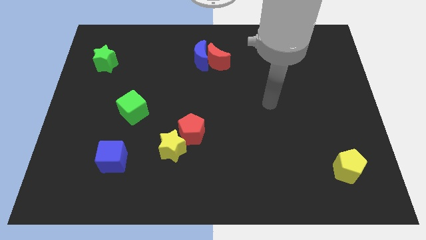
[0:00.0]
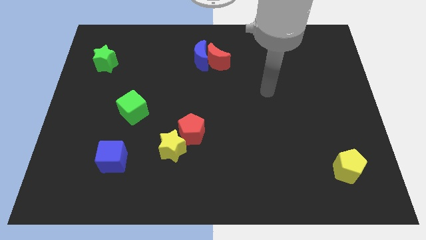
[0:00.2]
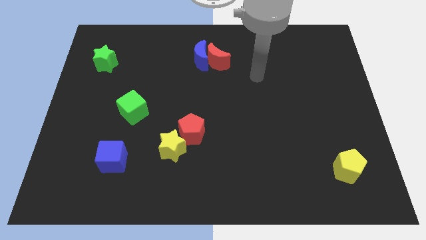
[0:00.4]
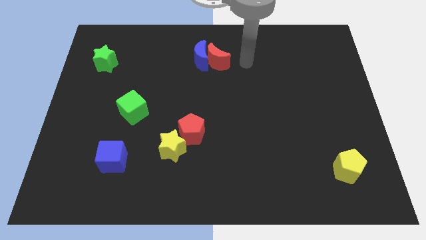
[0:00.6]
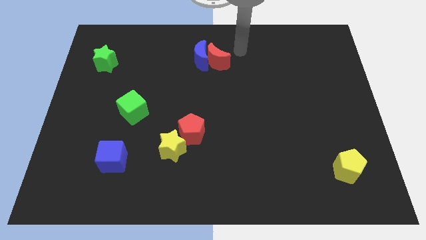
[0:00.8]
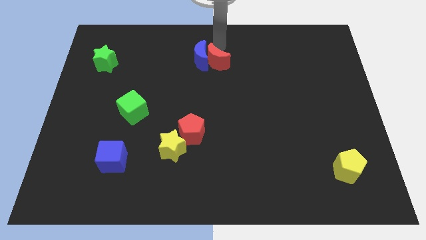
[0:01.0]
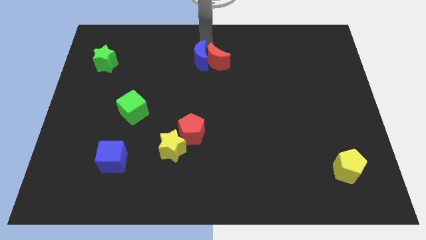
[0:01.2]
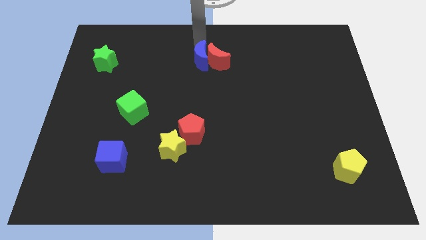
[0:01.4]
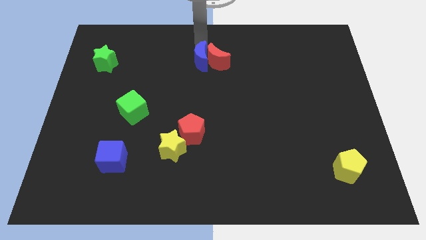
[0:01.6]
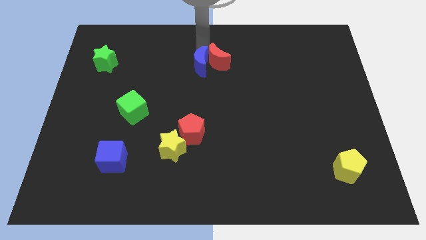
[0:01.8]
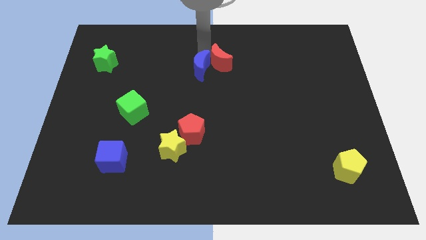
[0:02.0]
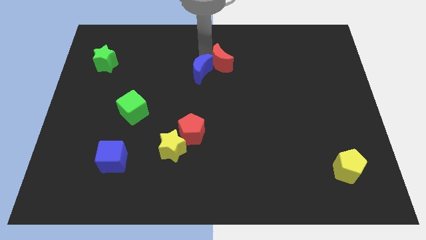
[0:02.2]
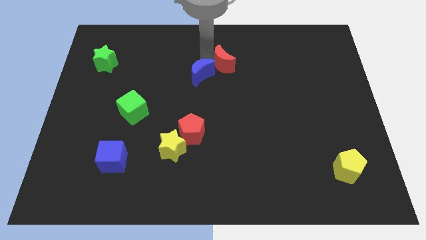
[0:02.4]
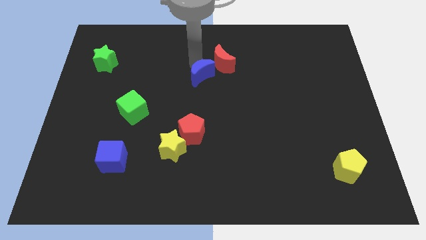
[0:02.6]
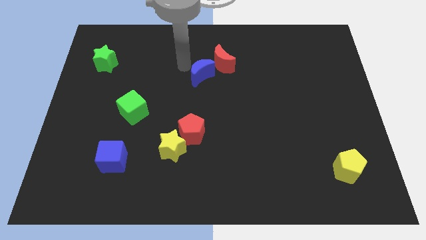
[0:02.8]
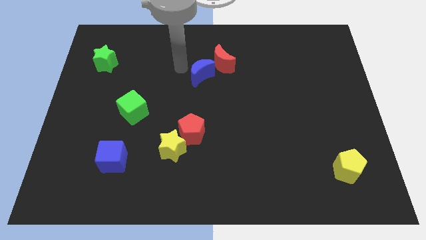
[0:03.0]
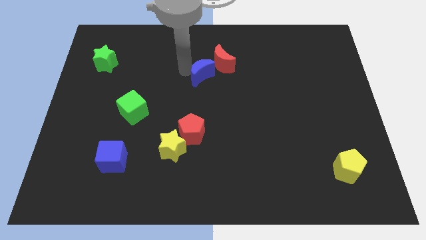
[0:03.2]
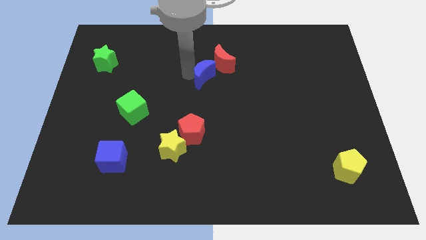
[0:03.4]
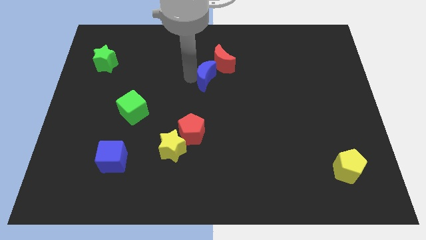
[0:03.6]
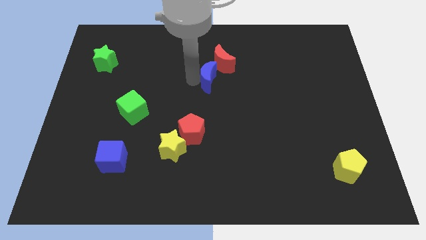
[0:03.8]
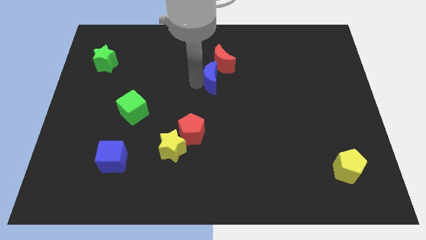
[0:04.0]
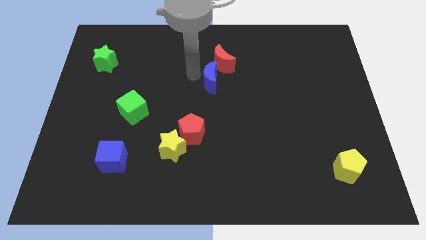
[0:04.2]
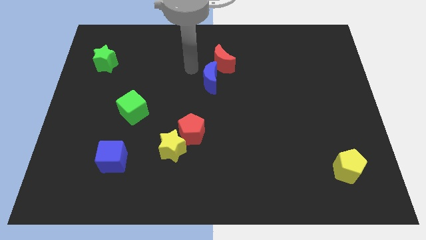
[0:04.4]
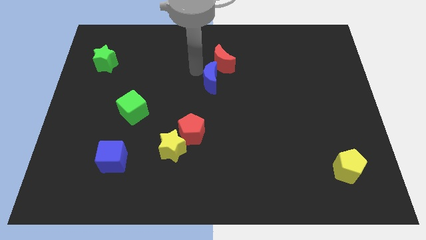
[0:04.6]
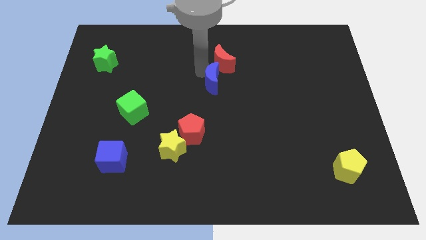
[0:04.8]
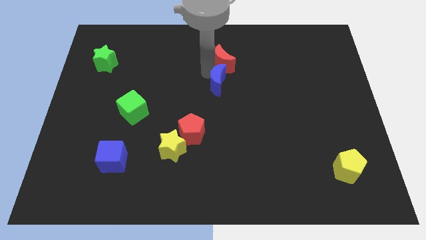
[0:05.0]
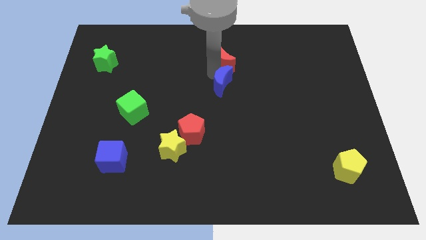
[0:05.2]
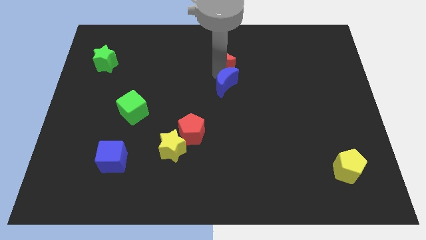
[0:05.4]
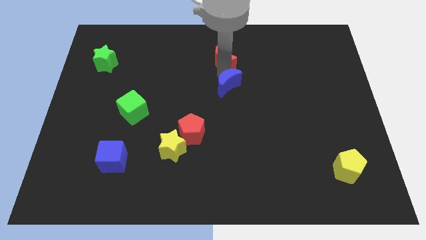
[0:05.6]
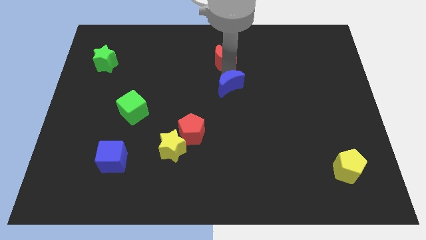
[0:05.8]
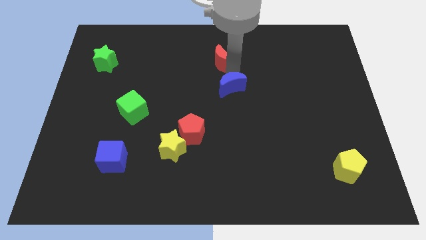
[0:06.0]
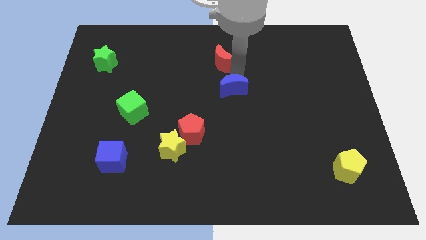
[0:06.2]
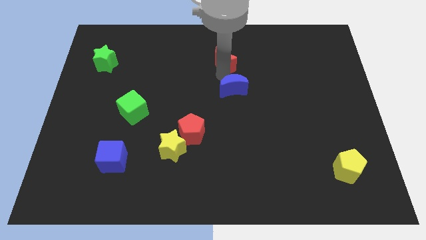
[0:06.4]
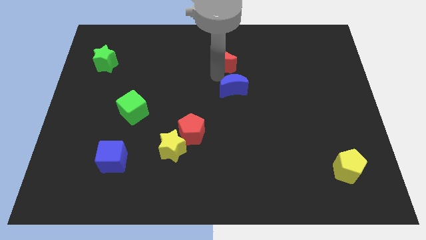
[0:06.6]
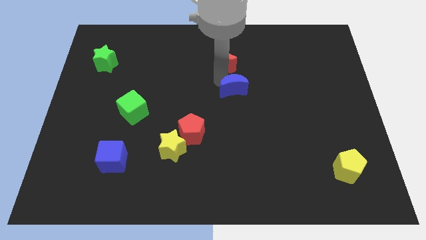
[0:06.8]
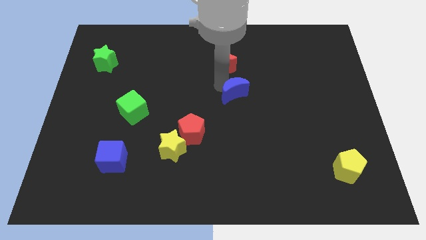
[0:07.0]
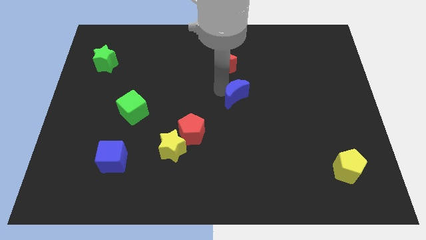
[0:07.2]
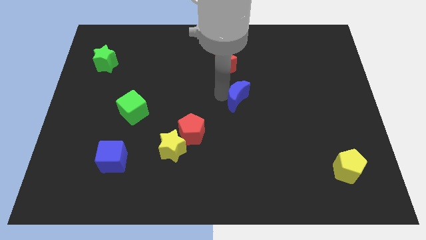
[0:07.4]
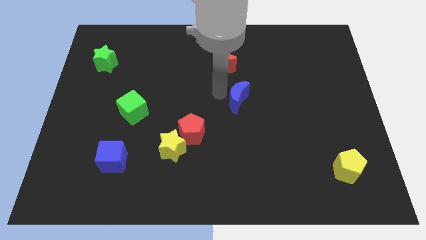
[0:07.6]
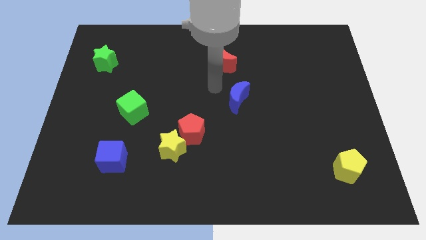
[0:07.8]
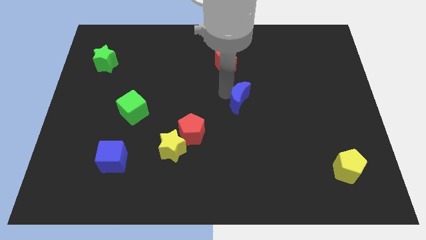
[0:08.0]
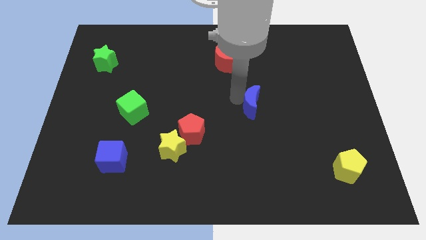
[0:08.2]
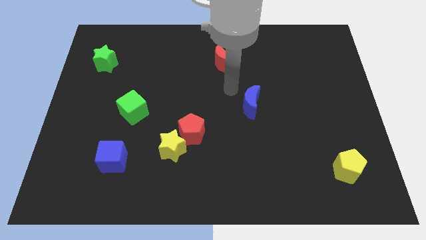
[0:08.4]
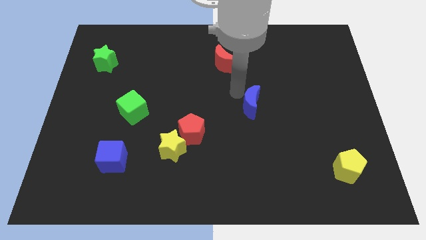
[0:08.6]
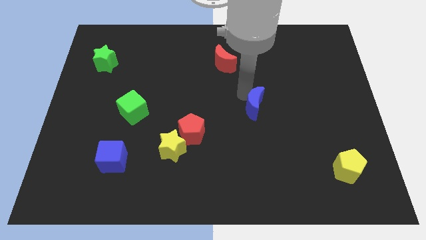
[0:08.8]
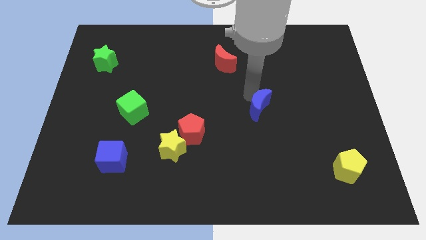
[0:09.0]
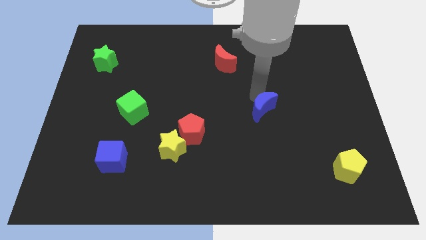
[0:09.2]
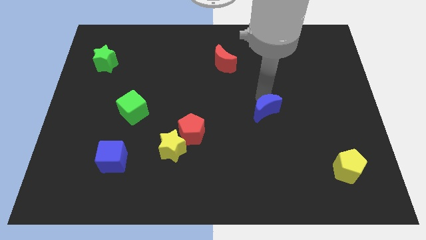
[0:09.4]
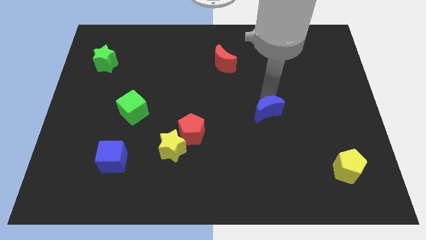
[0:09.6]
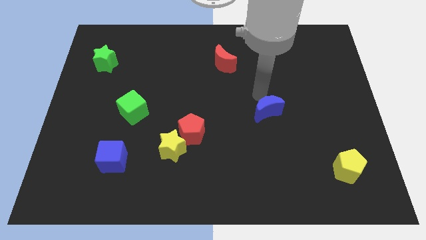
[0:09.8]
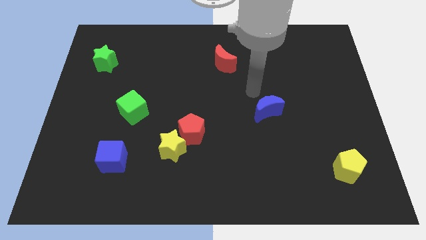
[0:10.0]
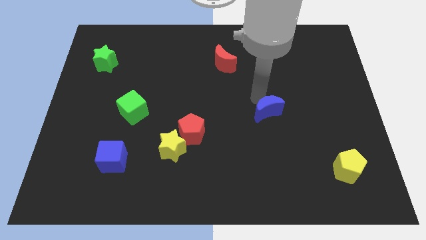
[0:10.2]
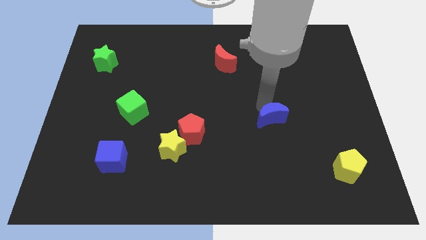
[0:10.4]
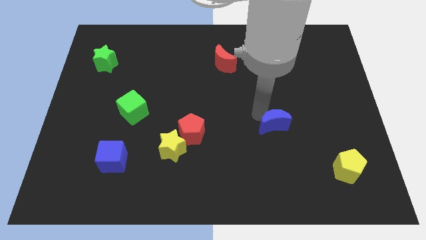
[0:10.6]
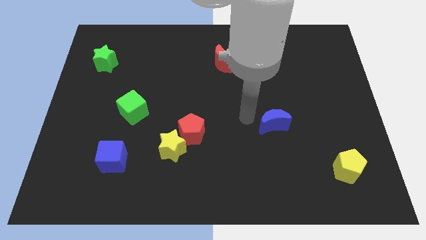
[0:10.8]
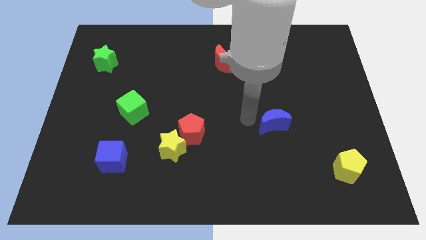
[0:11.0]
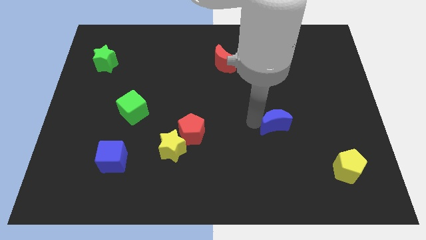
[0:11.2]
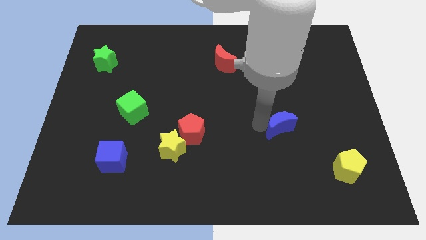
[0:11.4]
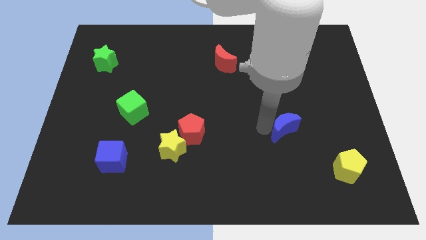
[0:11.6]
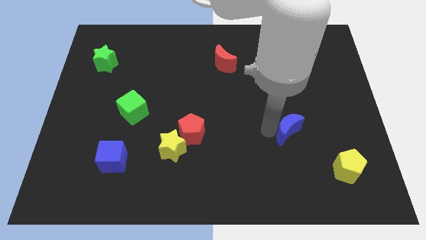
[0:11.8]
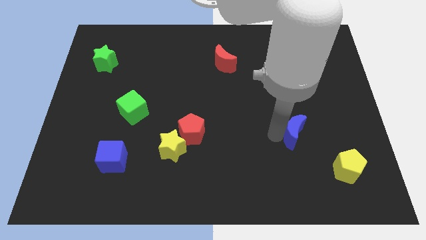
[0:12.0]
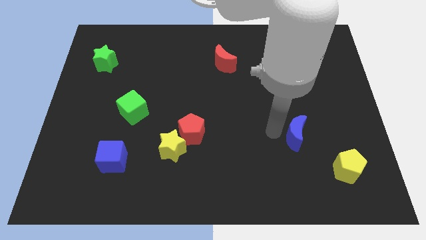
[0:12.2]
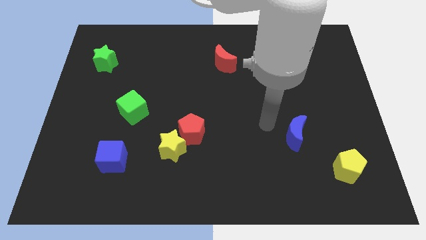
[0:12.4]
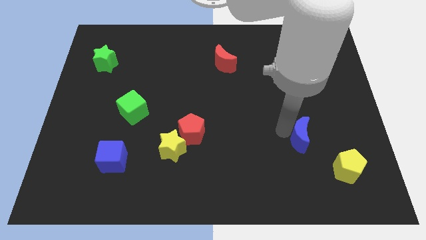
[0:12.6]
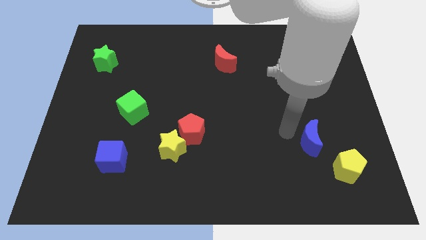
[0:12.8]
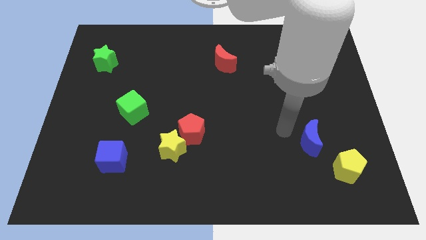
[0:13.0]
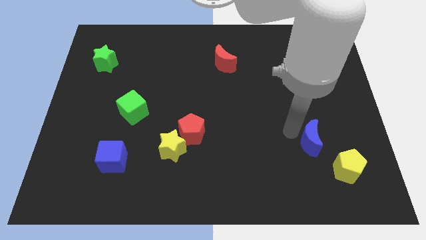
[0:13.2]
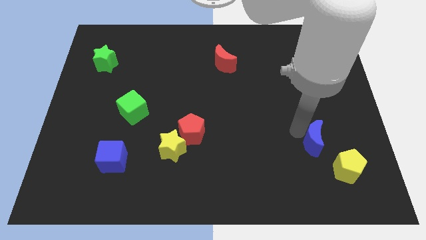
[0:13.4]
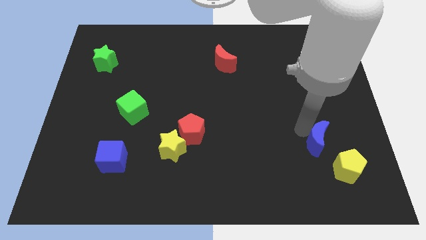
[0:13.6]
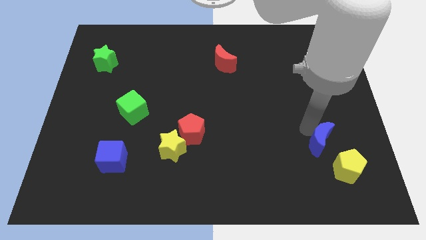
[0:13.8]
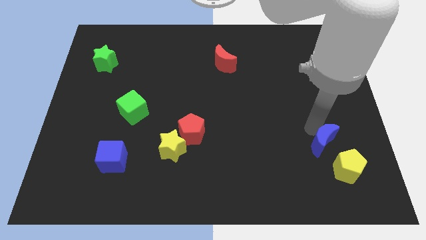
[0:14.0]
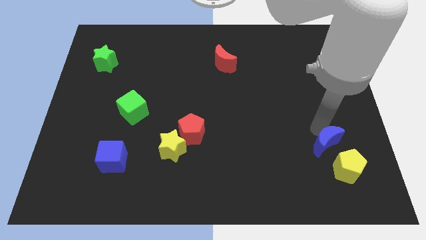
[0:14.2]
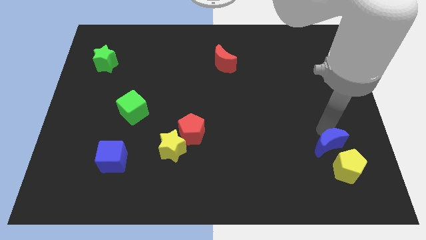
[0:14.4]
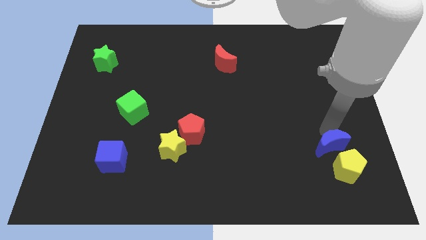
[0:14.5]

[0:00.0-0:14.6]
move the blue moon to the yellow pentagon
